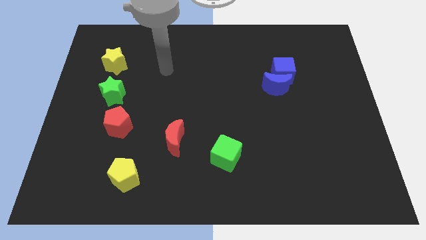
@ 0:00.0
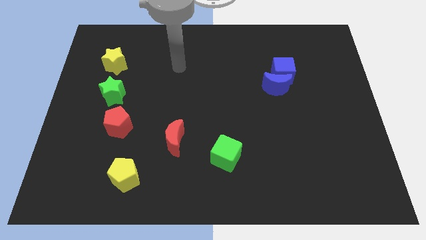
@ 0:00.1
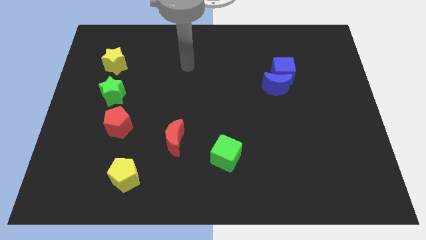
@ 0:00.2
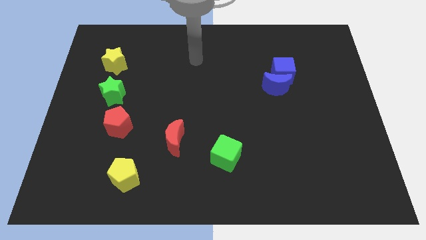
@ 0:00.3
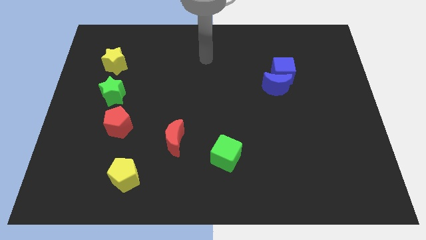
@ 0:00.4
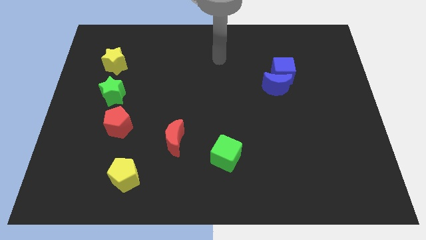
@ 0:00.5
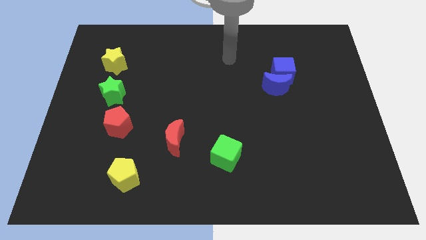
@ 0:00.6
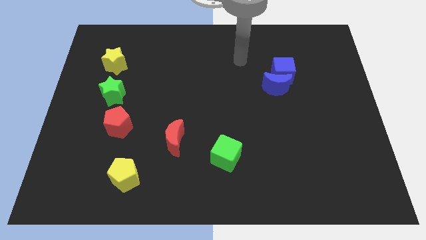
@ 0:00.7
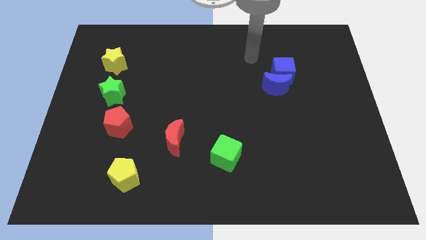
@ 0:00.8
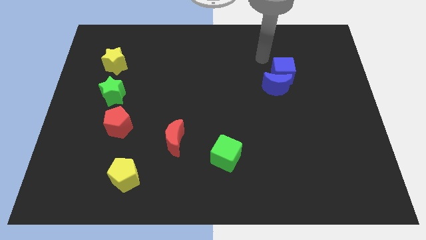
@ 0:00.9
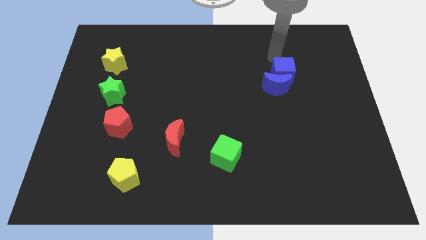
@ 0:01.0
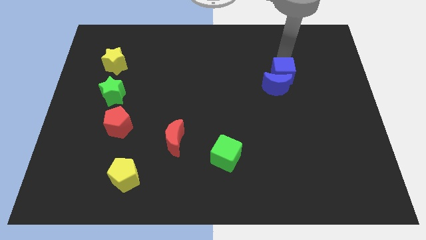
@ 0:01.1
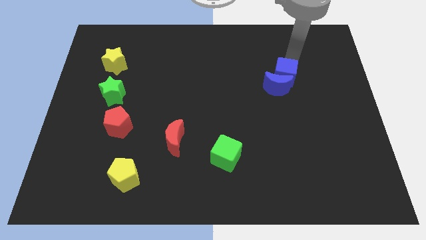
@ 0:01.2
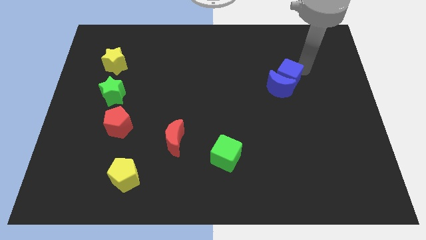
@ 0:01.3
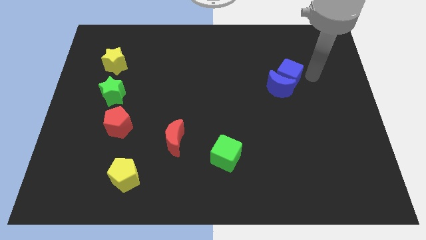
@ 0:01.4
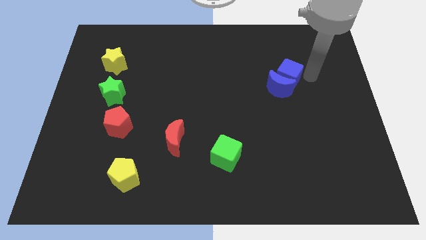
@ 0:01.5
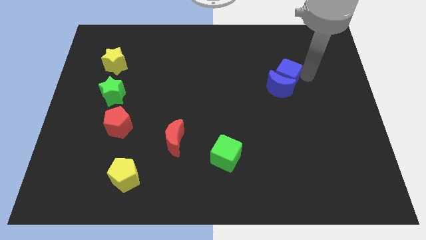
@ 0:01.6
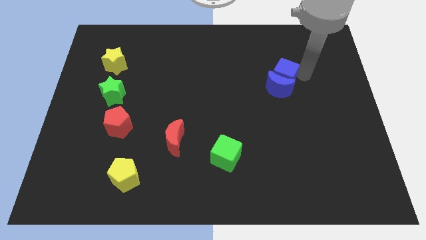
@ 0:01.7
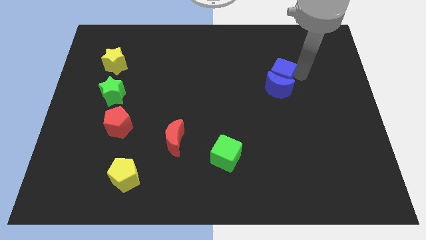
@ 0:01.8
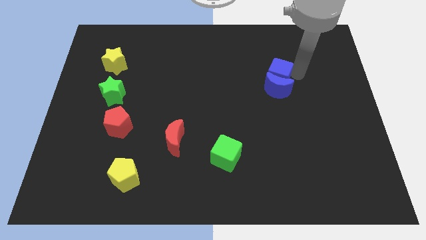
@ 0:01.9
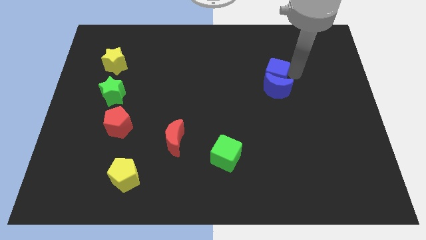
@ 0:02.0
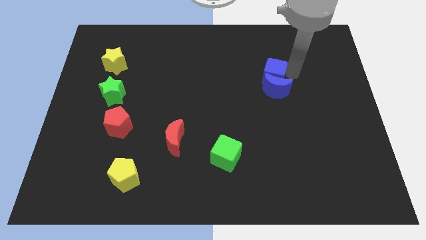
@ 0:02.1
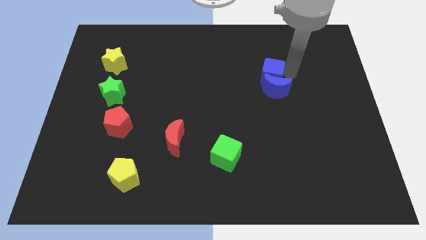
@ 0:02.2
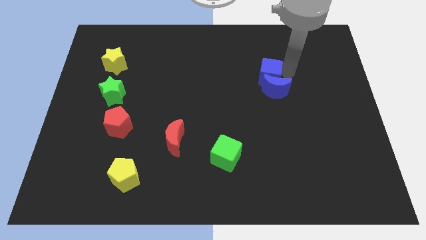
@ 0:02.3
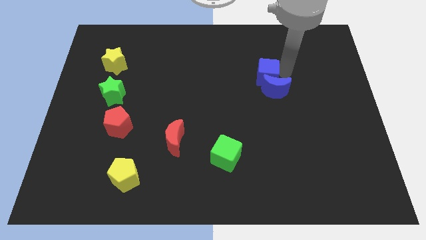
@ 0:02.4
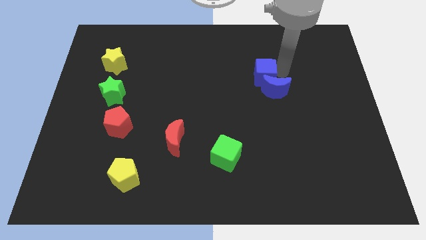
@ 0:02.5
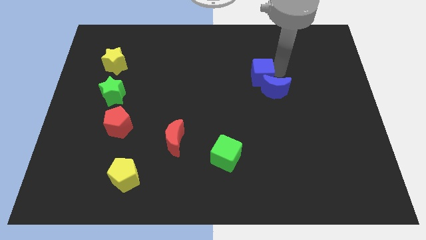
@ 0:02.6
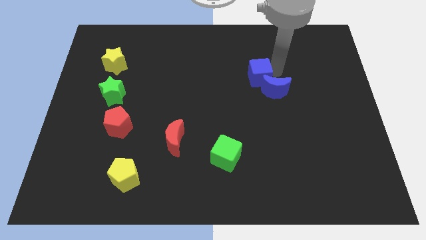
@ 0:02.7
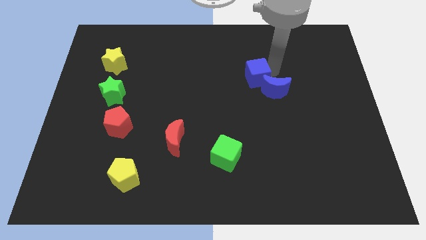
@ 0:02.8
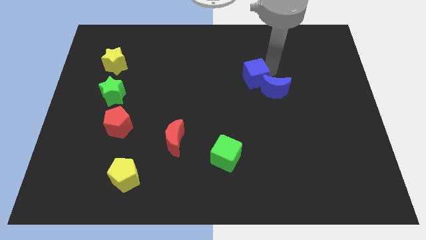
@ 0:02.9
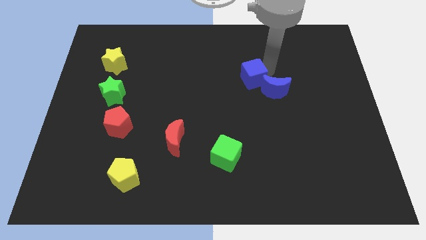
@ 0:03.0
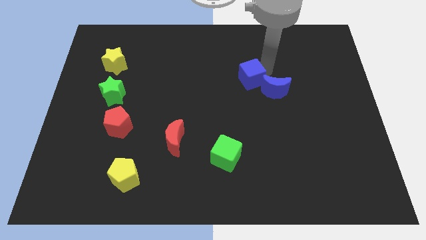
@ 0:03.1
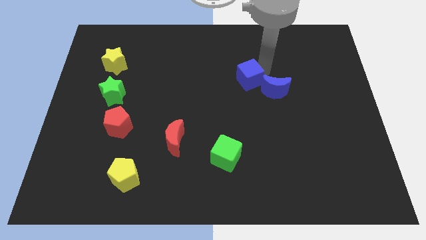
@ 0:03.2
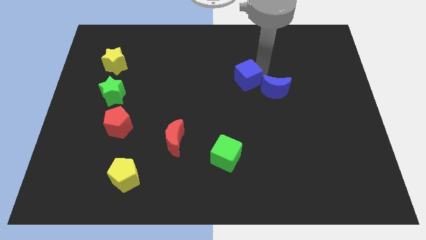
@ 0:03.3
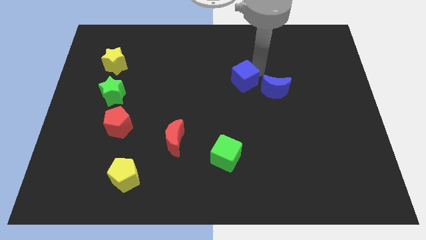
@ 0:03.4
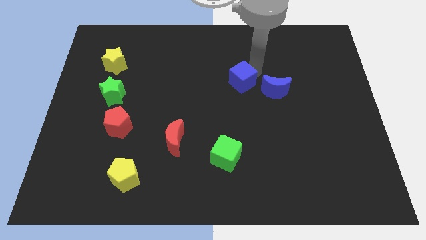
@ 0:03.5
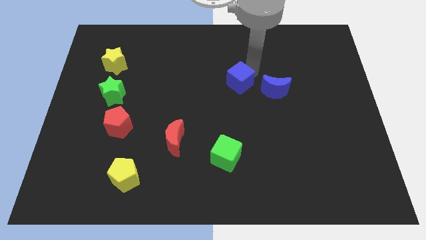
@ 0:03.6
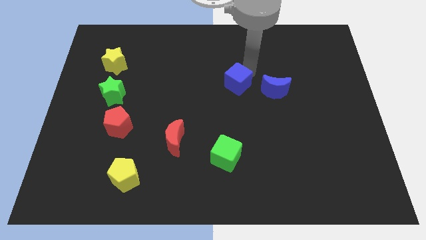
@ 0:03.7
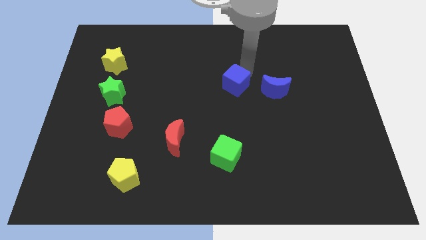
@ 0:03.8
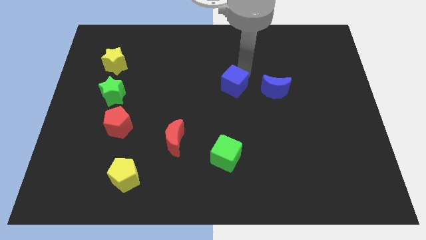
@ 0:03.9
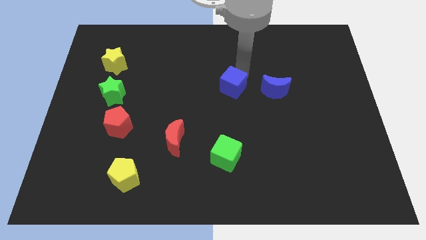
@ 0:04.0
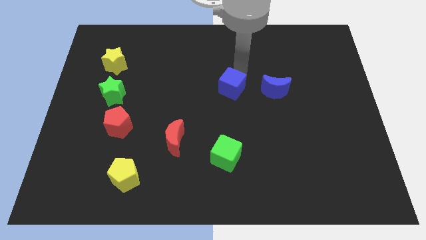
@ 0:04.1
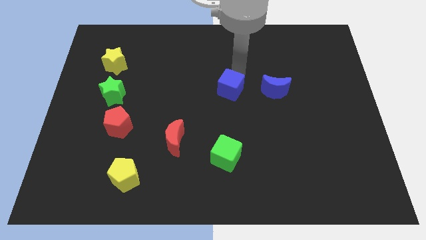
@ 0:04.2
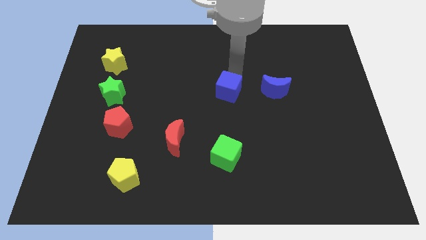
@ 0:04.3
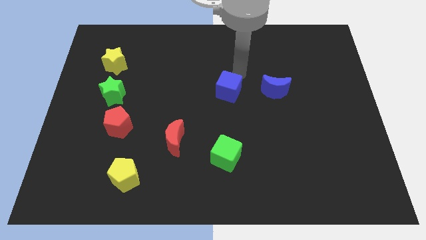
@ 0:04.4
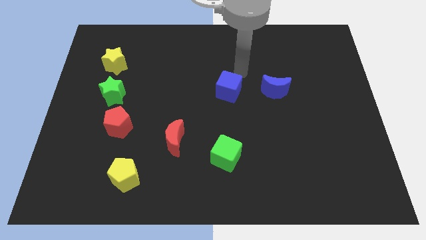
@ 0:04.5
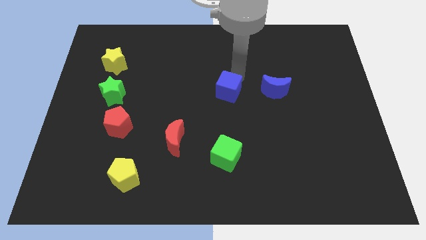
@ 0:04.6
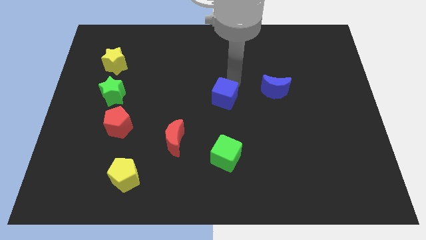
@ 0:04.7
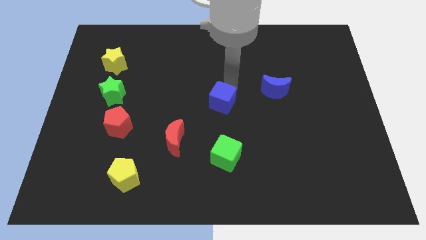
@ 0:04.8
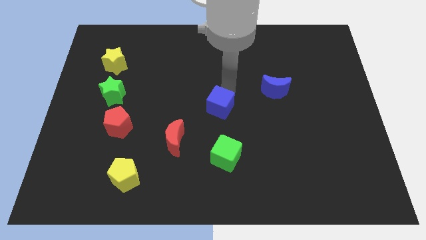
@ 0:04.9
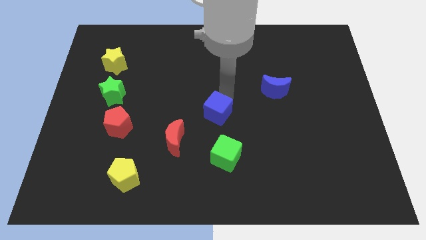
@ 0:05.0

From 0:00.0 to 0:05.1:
put the blue cube diagonally up and to the right of the red moon

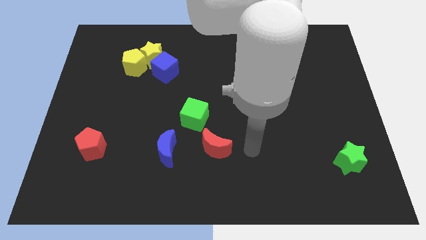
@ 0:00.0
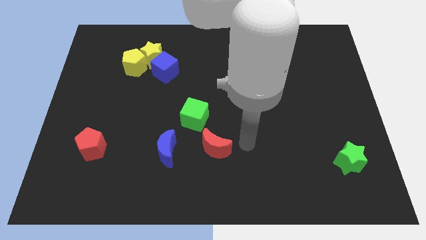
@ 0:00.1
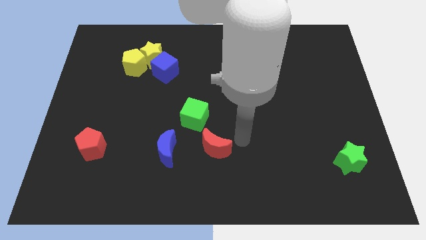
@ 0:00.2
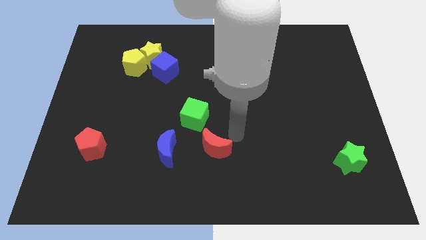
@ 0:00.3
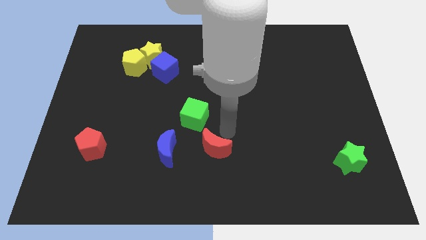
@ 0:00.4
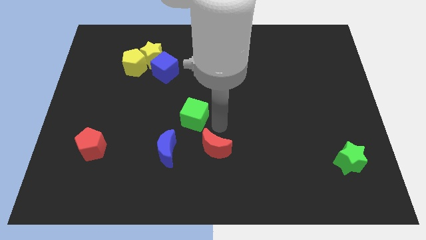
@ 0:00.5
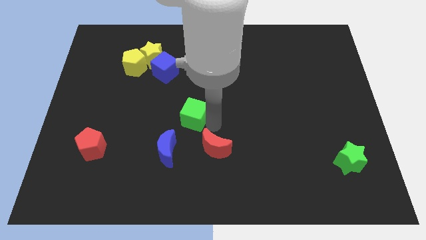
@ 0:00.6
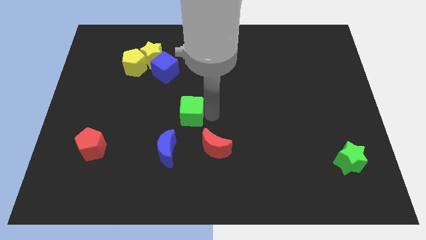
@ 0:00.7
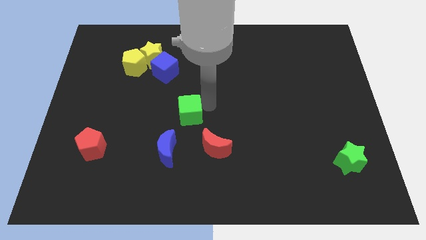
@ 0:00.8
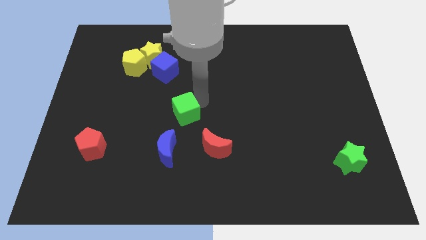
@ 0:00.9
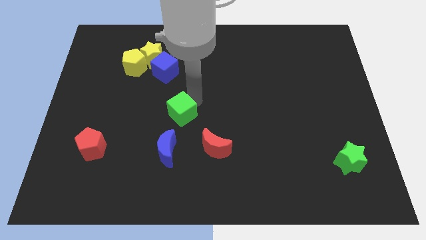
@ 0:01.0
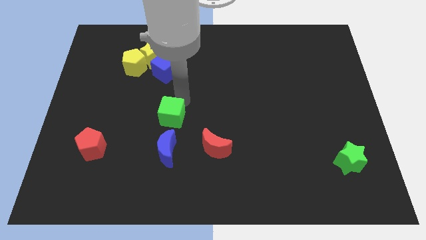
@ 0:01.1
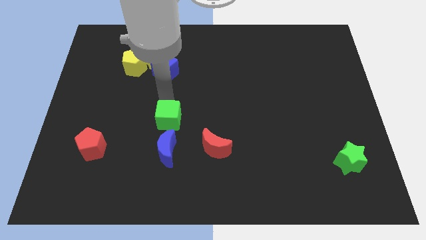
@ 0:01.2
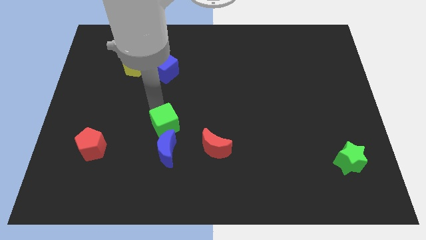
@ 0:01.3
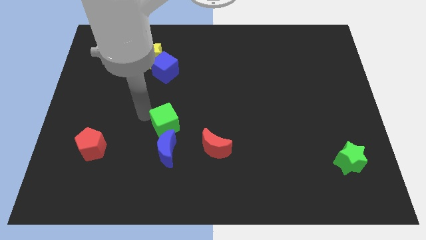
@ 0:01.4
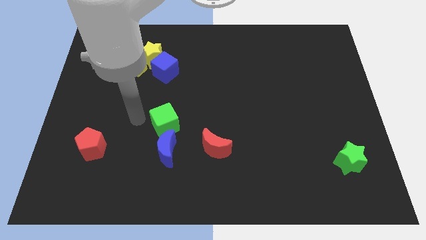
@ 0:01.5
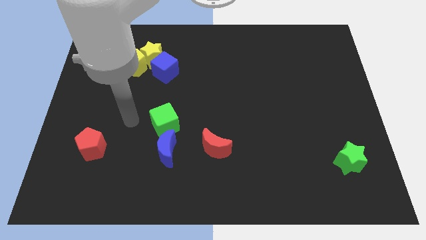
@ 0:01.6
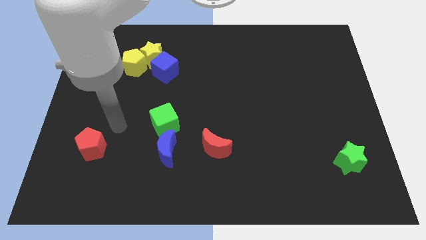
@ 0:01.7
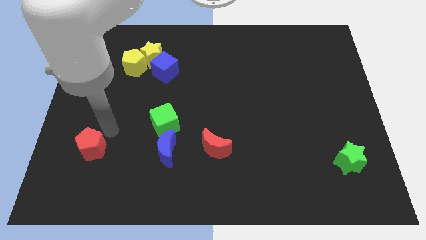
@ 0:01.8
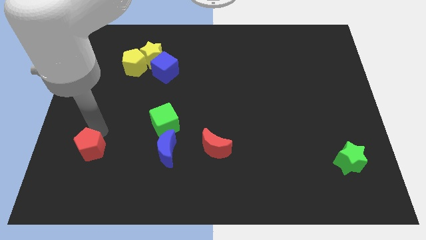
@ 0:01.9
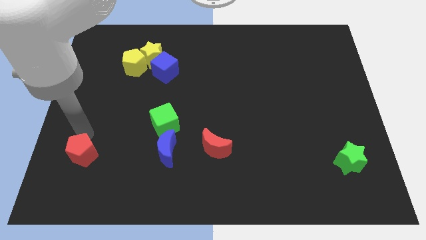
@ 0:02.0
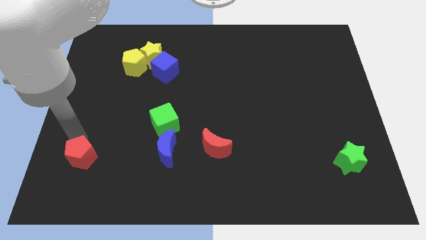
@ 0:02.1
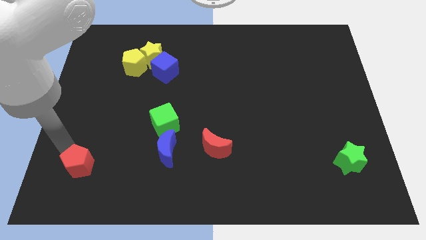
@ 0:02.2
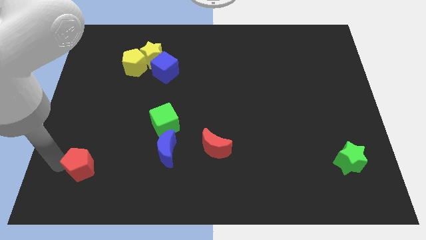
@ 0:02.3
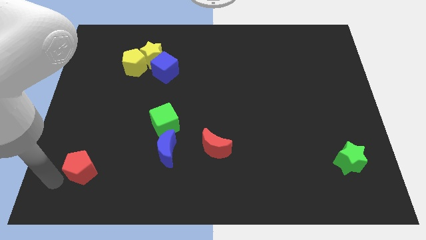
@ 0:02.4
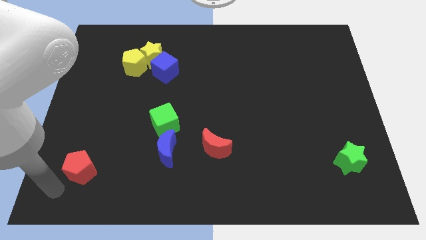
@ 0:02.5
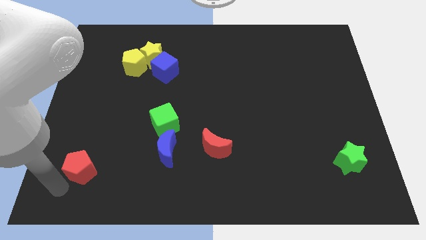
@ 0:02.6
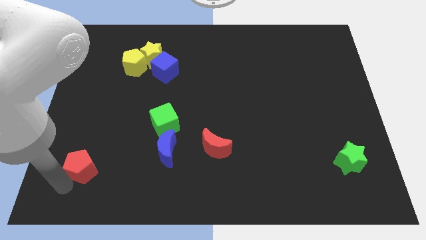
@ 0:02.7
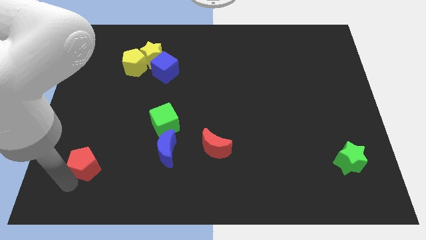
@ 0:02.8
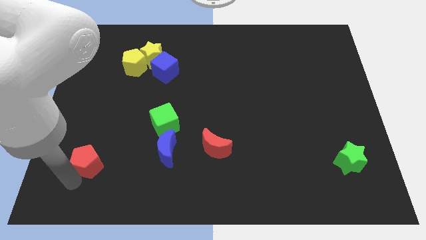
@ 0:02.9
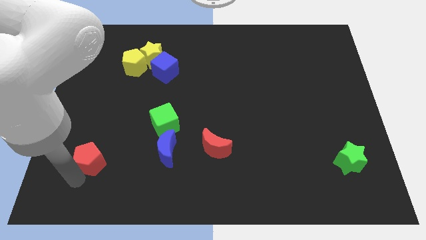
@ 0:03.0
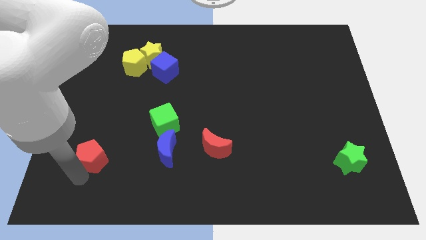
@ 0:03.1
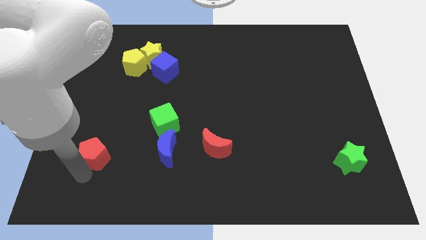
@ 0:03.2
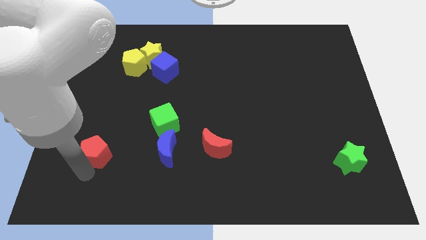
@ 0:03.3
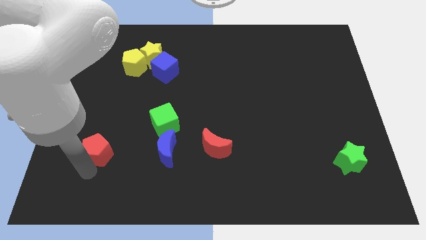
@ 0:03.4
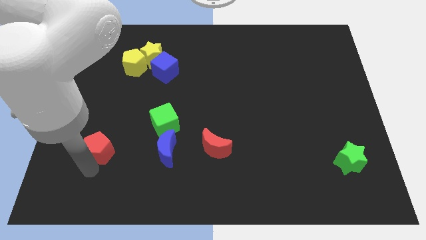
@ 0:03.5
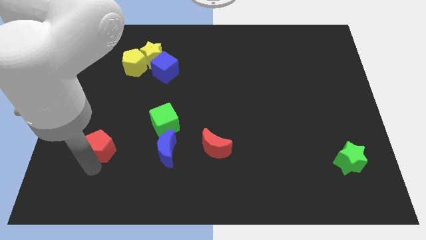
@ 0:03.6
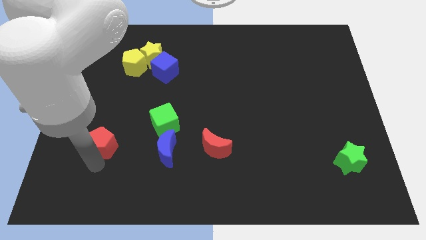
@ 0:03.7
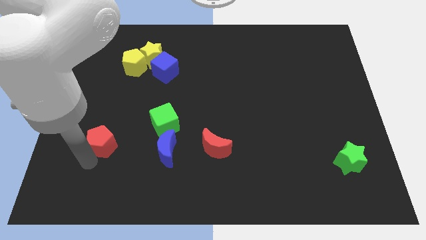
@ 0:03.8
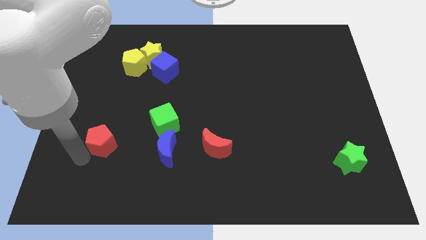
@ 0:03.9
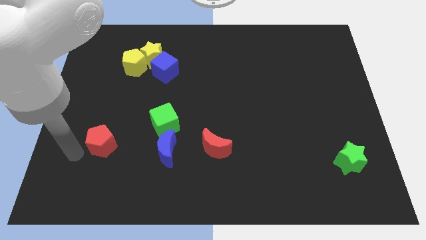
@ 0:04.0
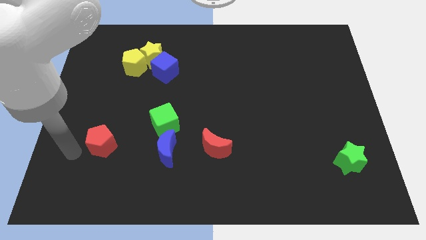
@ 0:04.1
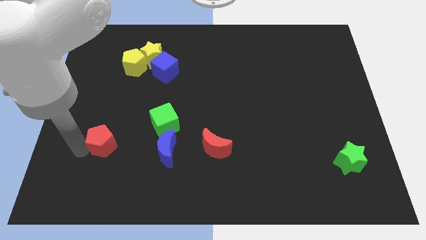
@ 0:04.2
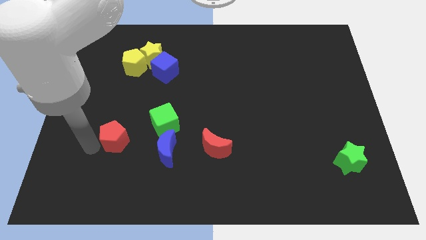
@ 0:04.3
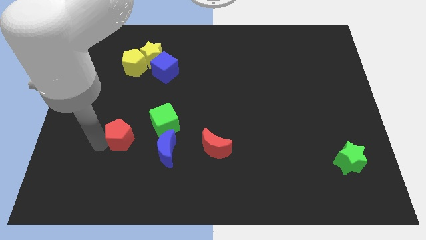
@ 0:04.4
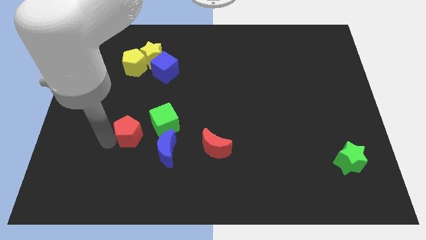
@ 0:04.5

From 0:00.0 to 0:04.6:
push the red pentagon diagonally up and to the left of the blue moon
